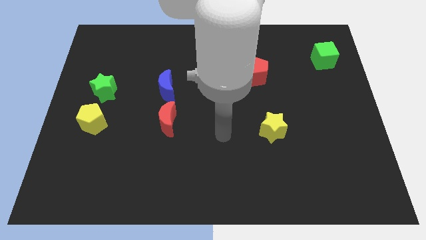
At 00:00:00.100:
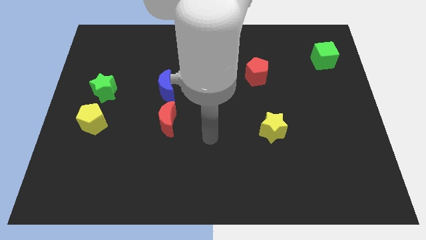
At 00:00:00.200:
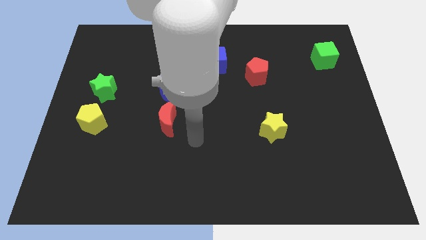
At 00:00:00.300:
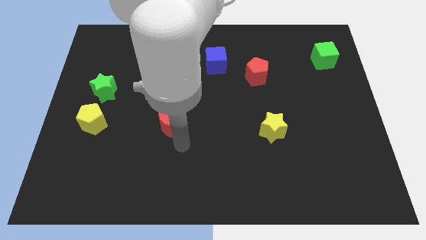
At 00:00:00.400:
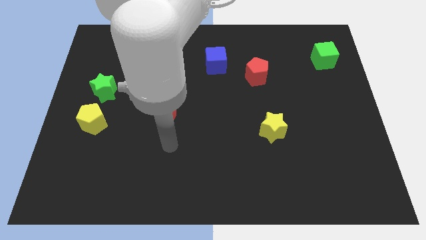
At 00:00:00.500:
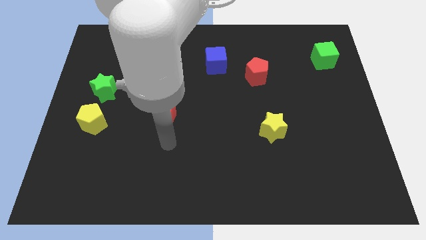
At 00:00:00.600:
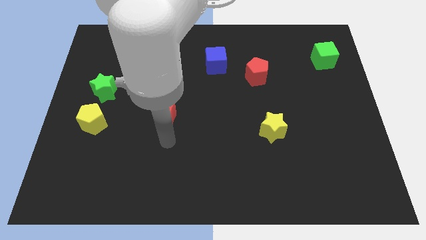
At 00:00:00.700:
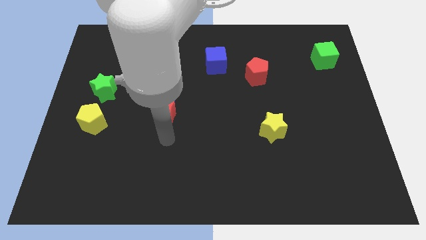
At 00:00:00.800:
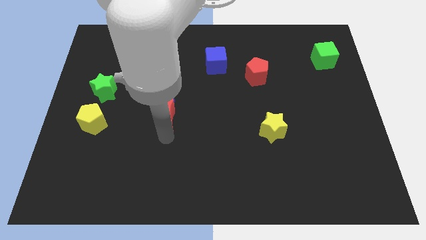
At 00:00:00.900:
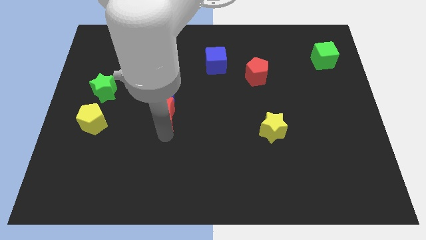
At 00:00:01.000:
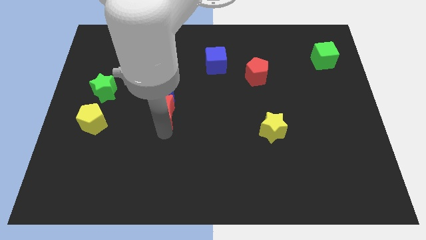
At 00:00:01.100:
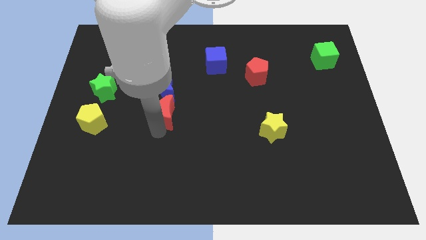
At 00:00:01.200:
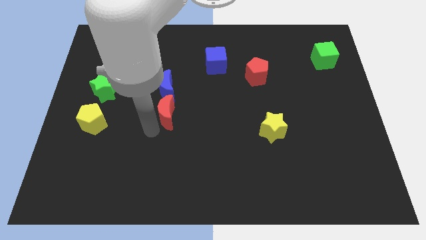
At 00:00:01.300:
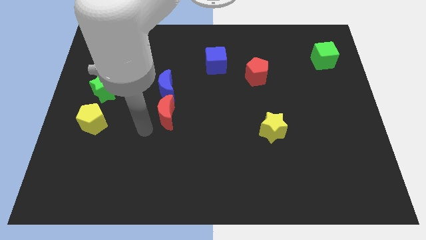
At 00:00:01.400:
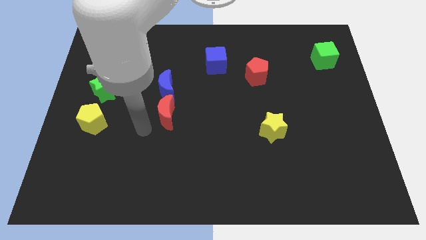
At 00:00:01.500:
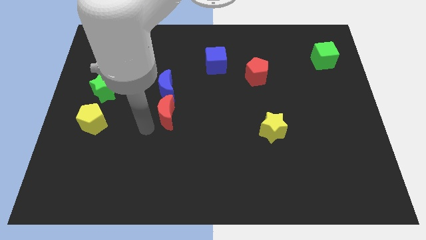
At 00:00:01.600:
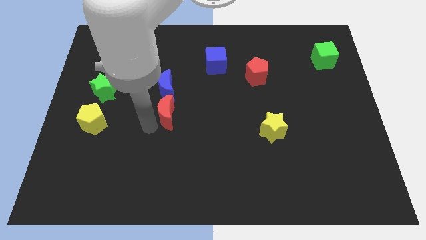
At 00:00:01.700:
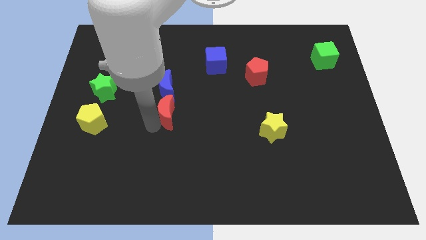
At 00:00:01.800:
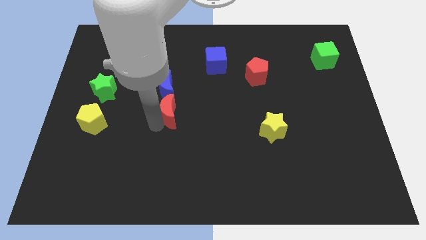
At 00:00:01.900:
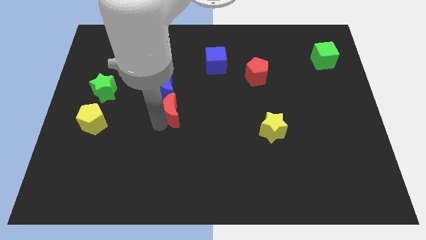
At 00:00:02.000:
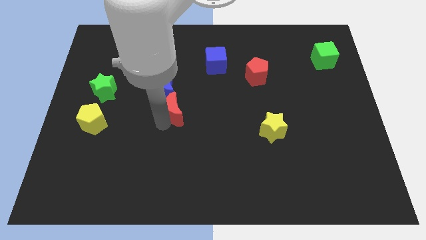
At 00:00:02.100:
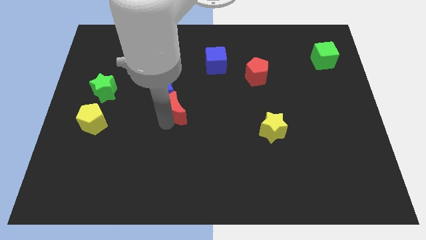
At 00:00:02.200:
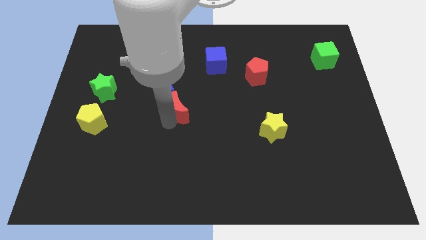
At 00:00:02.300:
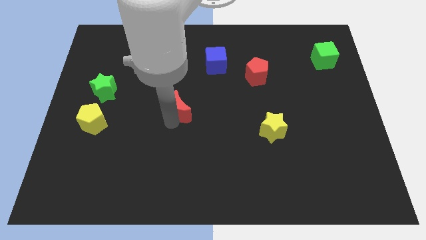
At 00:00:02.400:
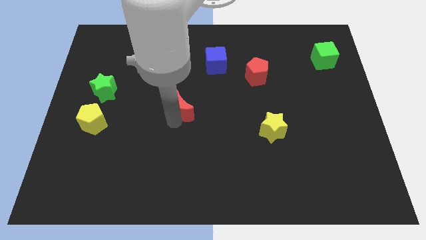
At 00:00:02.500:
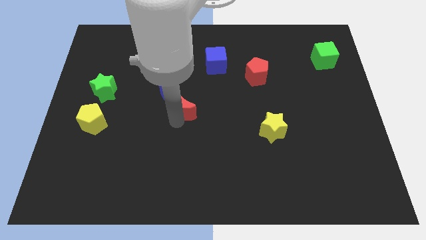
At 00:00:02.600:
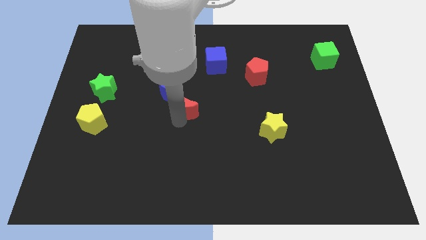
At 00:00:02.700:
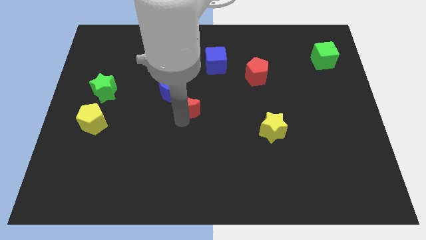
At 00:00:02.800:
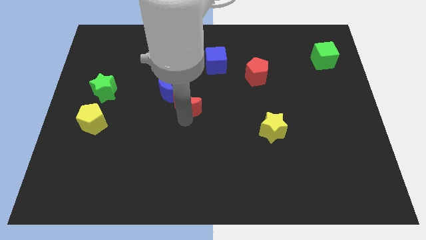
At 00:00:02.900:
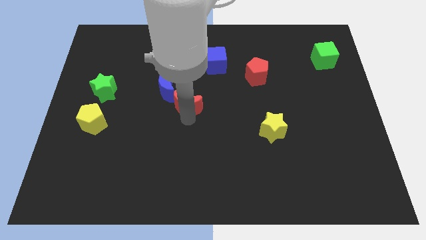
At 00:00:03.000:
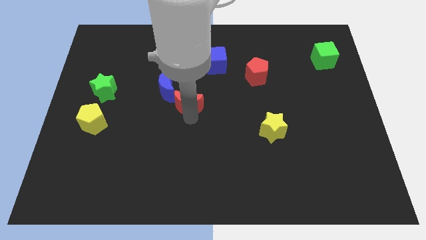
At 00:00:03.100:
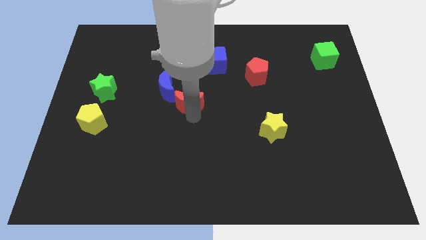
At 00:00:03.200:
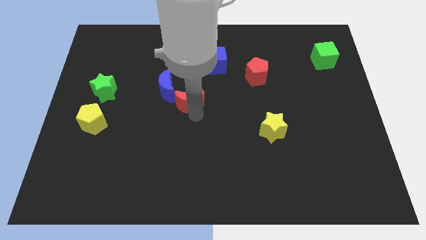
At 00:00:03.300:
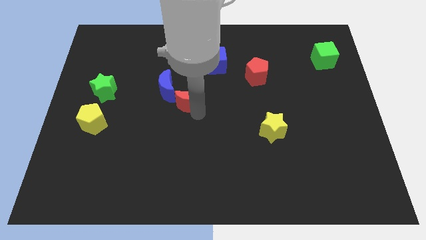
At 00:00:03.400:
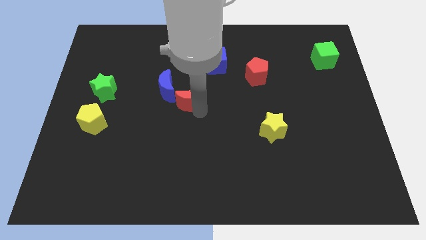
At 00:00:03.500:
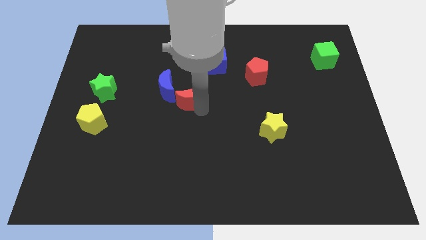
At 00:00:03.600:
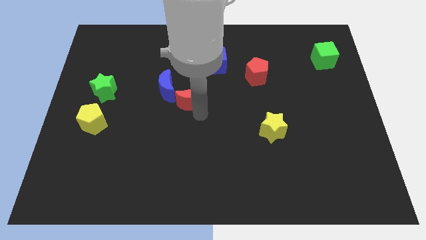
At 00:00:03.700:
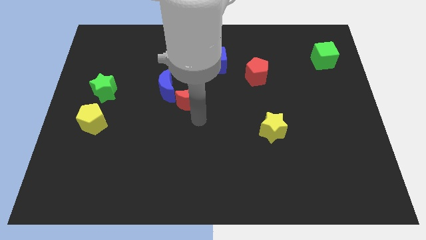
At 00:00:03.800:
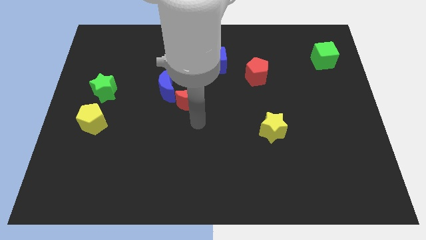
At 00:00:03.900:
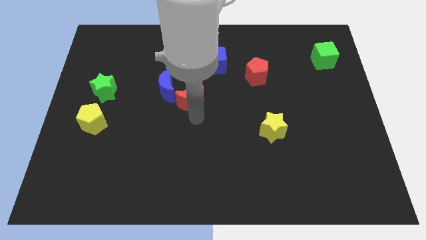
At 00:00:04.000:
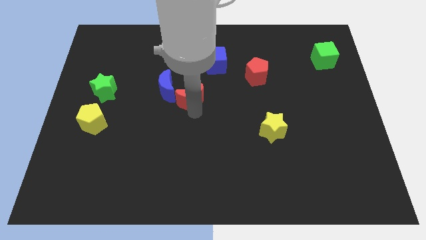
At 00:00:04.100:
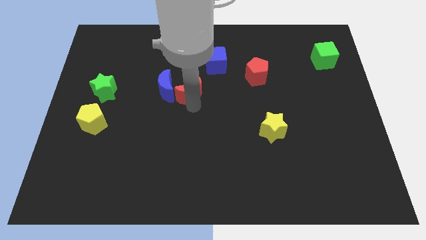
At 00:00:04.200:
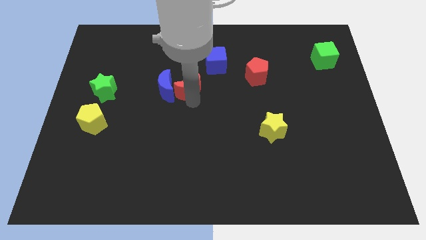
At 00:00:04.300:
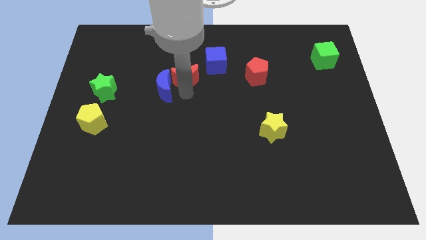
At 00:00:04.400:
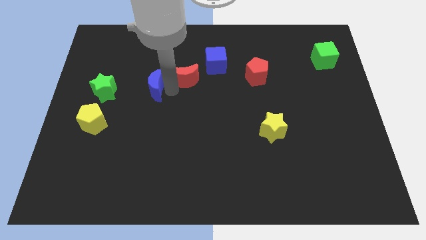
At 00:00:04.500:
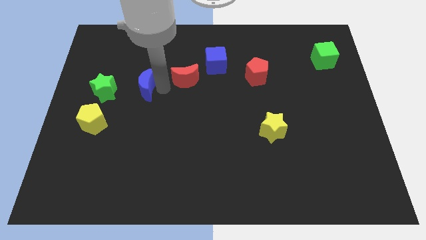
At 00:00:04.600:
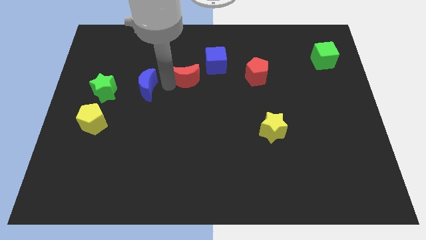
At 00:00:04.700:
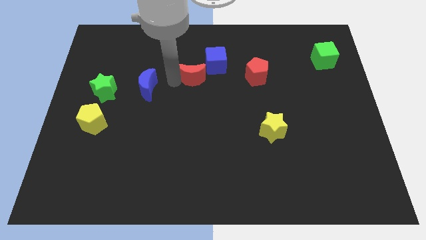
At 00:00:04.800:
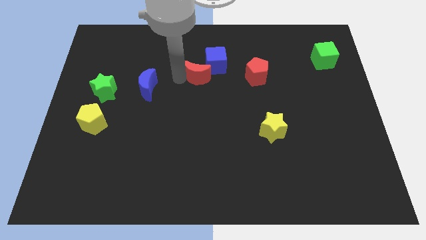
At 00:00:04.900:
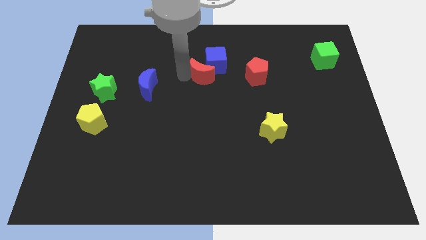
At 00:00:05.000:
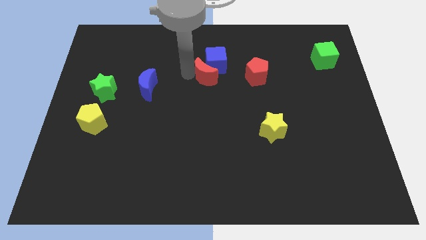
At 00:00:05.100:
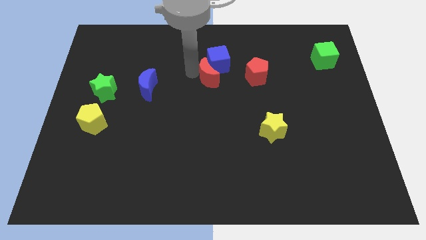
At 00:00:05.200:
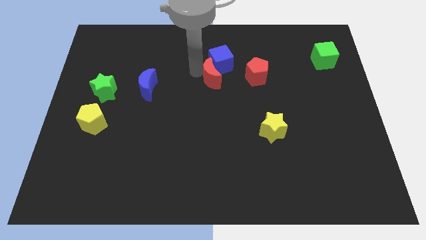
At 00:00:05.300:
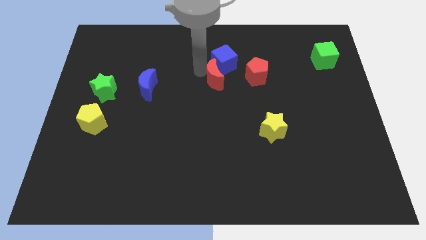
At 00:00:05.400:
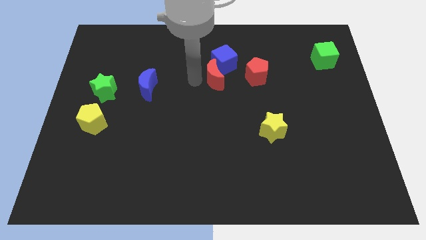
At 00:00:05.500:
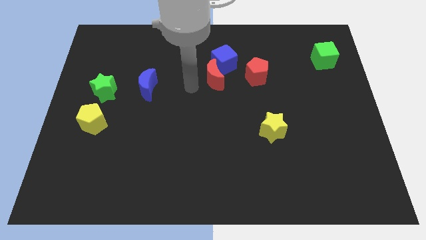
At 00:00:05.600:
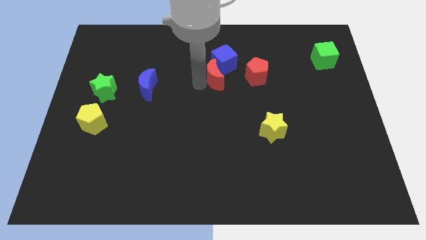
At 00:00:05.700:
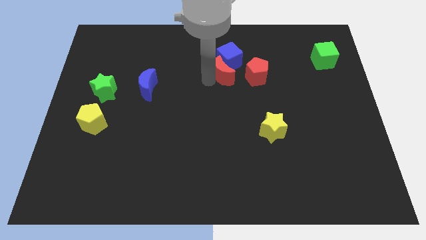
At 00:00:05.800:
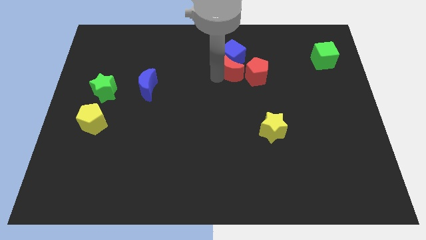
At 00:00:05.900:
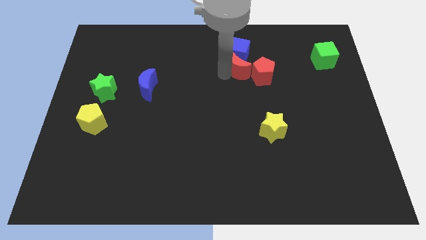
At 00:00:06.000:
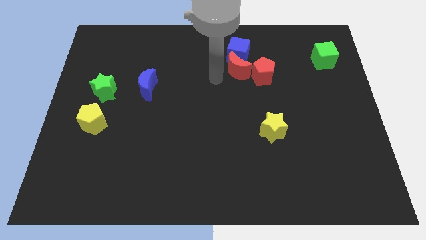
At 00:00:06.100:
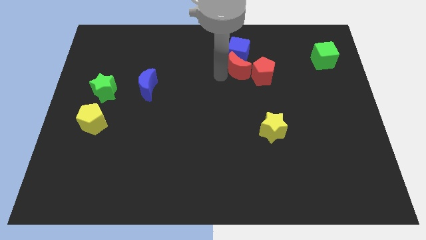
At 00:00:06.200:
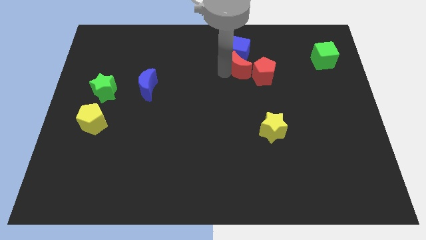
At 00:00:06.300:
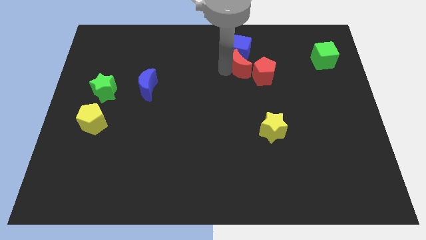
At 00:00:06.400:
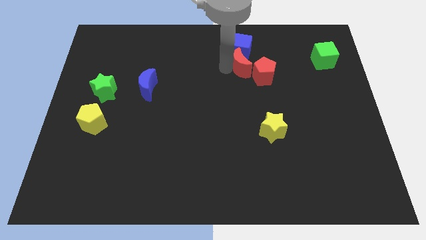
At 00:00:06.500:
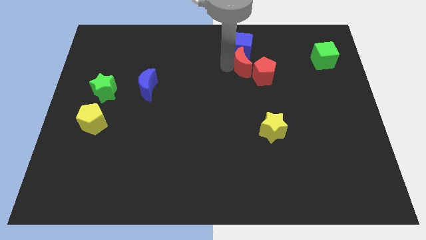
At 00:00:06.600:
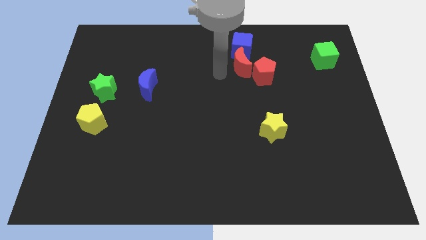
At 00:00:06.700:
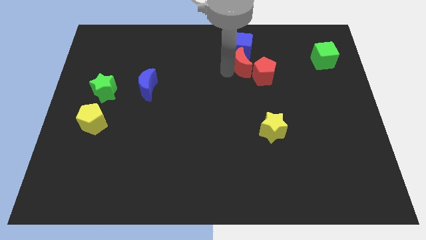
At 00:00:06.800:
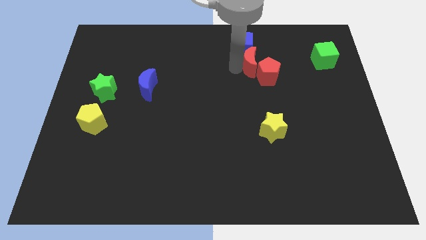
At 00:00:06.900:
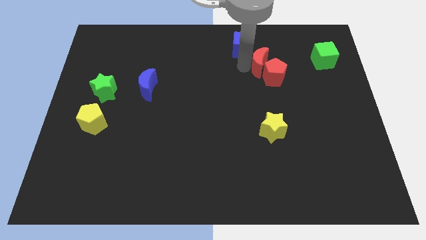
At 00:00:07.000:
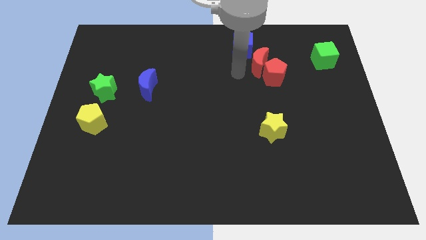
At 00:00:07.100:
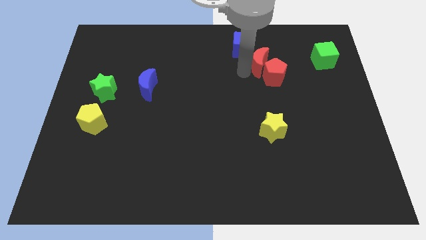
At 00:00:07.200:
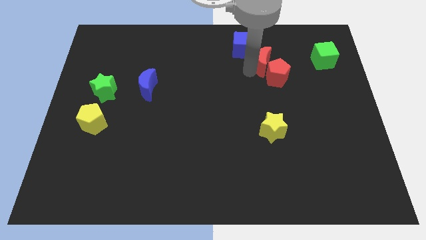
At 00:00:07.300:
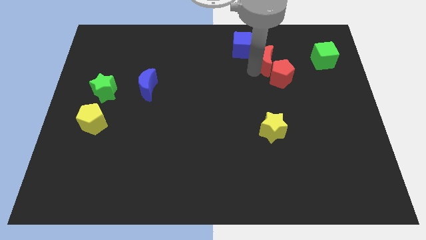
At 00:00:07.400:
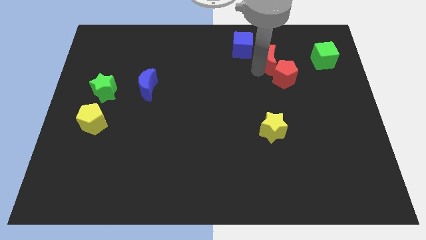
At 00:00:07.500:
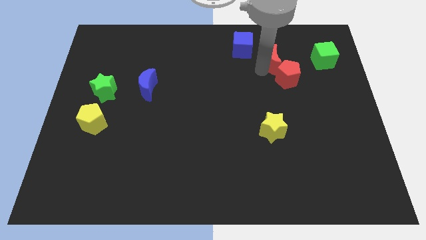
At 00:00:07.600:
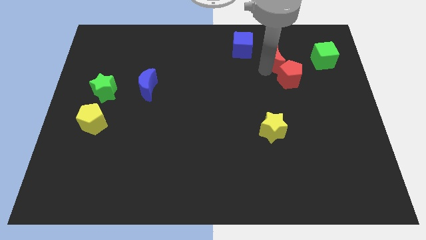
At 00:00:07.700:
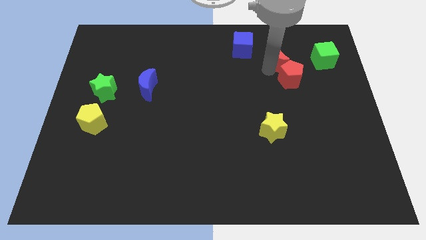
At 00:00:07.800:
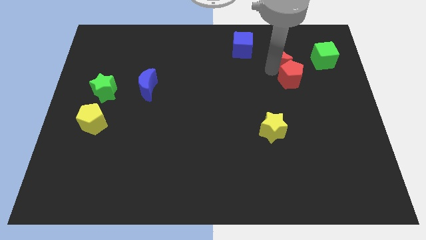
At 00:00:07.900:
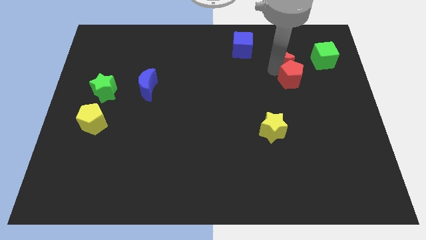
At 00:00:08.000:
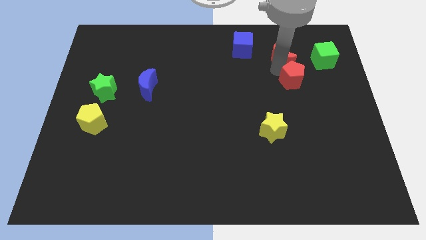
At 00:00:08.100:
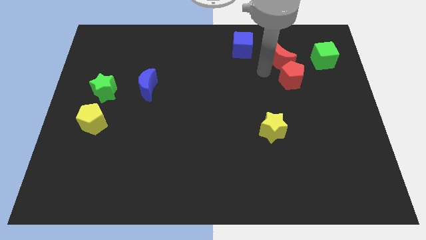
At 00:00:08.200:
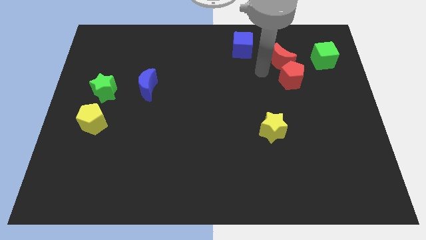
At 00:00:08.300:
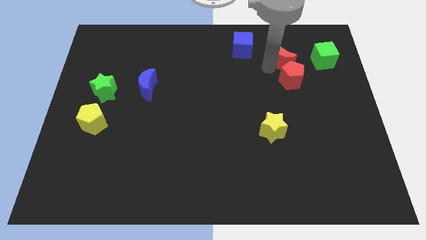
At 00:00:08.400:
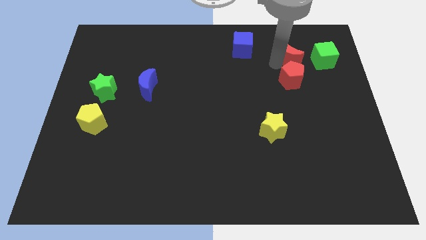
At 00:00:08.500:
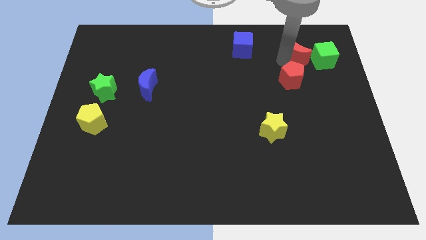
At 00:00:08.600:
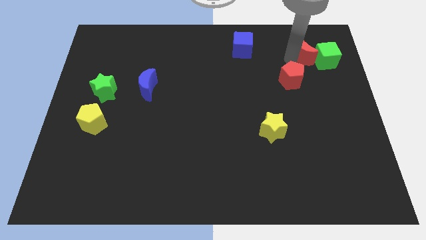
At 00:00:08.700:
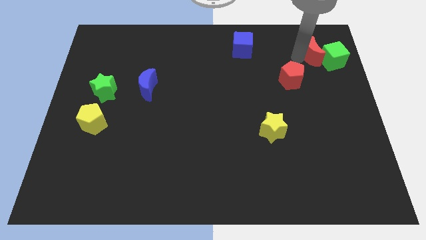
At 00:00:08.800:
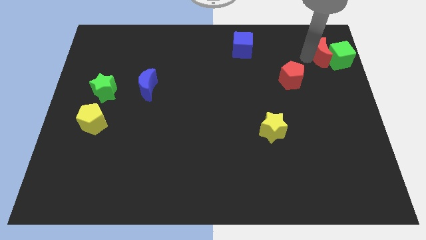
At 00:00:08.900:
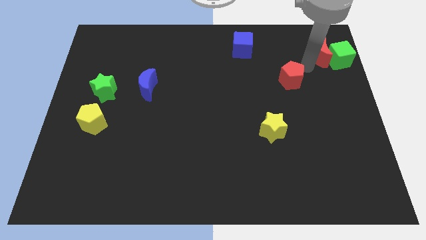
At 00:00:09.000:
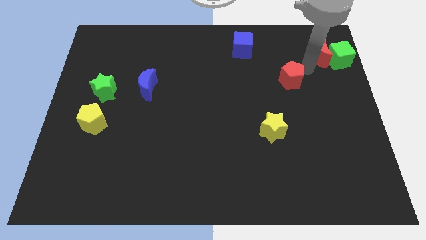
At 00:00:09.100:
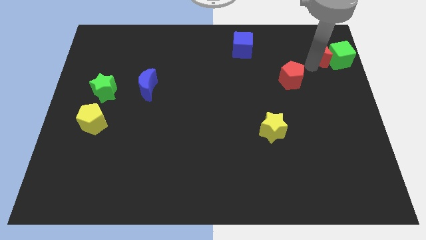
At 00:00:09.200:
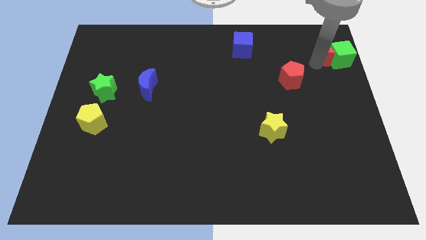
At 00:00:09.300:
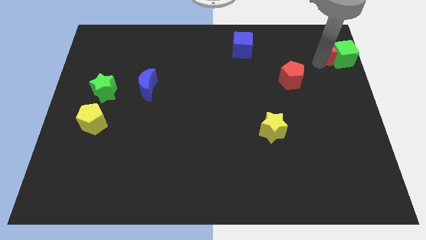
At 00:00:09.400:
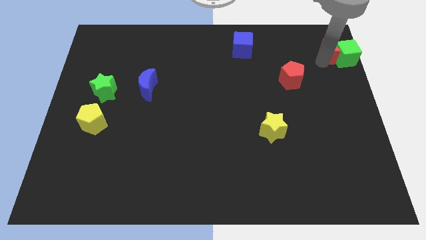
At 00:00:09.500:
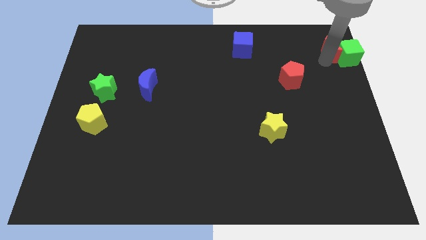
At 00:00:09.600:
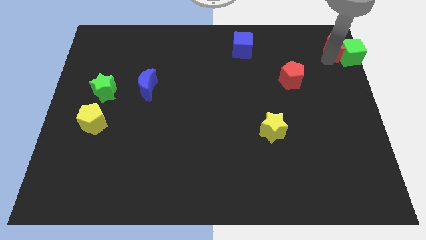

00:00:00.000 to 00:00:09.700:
move the red moon to the top right
